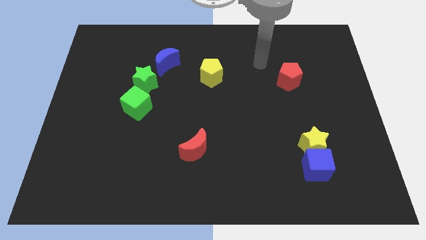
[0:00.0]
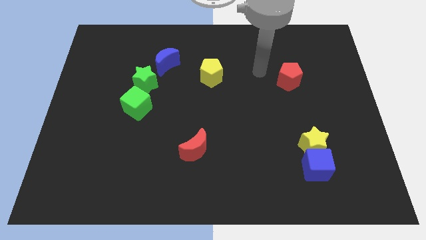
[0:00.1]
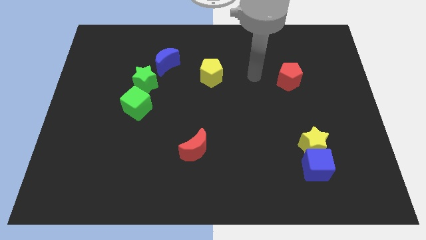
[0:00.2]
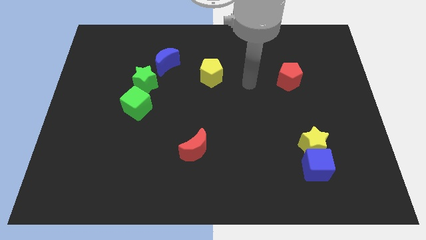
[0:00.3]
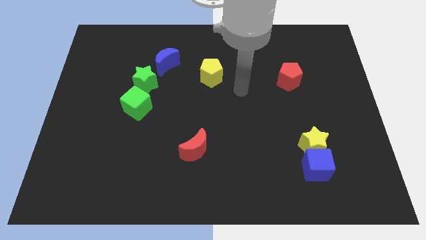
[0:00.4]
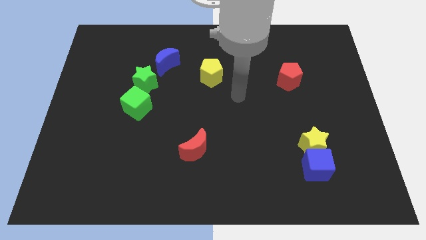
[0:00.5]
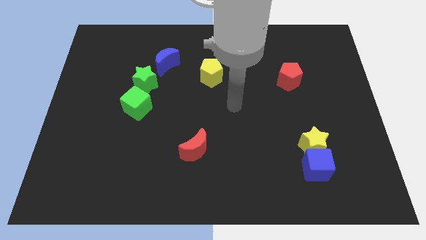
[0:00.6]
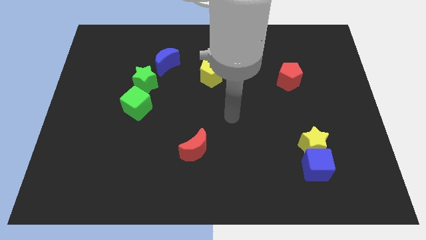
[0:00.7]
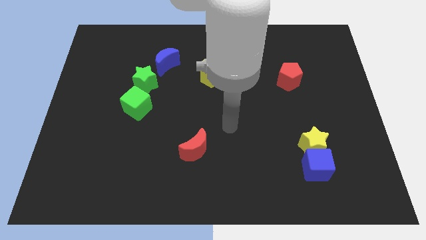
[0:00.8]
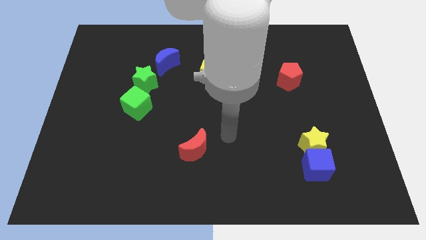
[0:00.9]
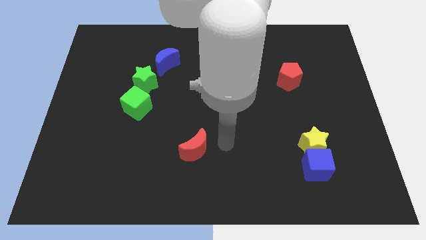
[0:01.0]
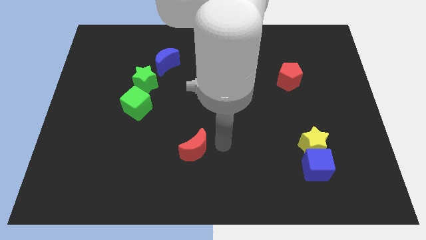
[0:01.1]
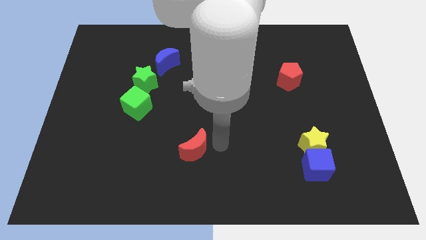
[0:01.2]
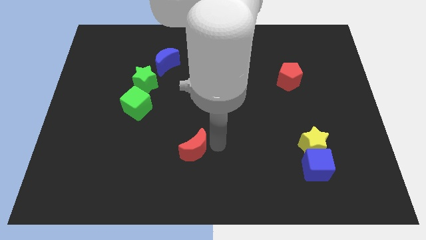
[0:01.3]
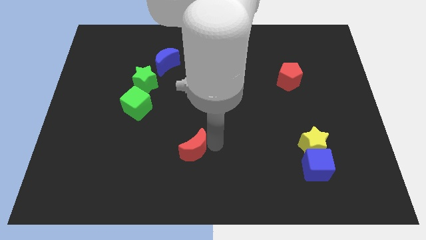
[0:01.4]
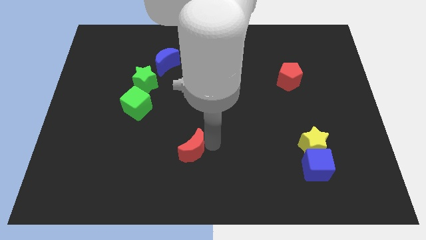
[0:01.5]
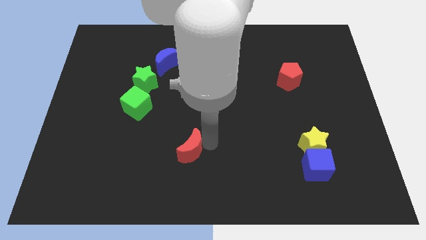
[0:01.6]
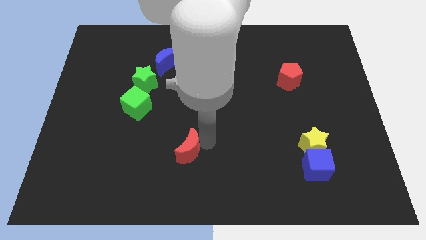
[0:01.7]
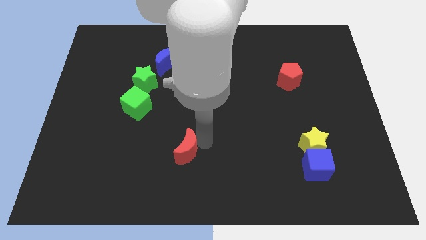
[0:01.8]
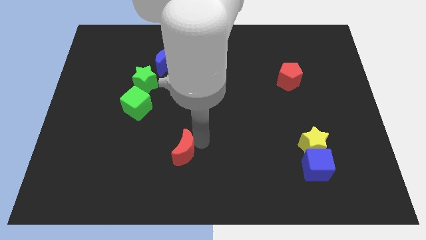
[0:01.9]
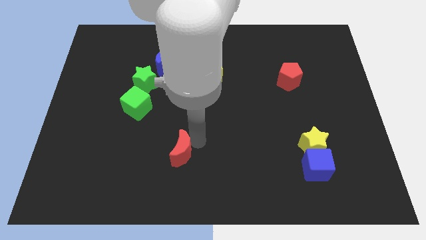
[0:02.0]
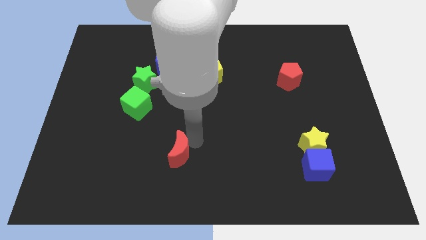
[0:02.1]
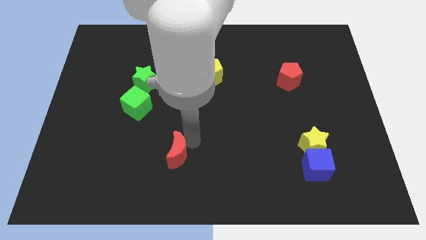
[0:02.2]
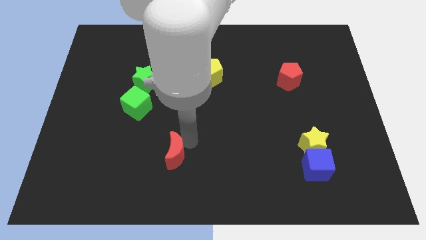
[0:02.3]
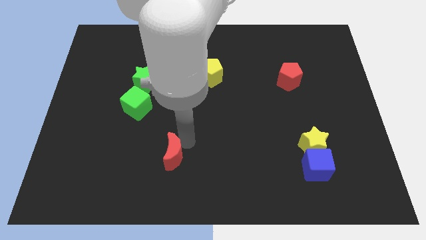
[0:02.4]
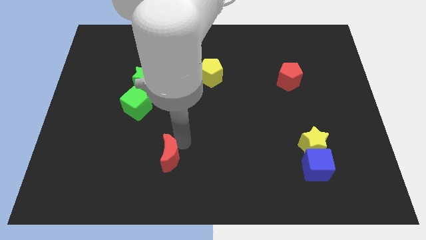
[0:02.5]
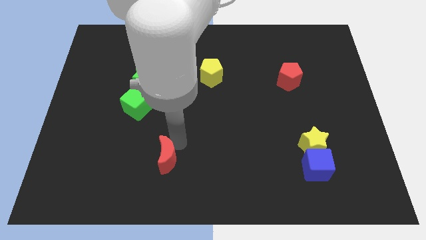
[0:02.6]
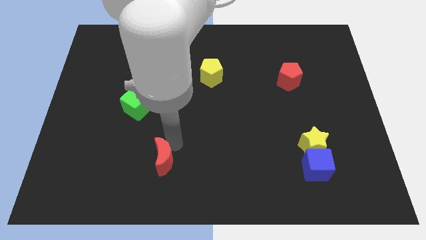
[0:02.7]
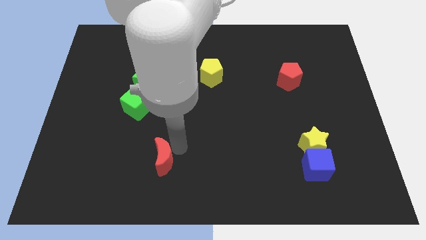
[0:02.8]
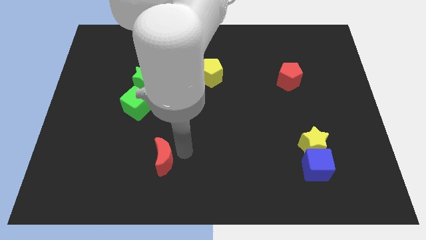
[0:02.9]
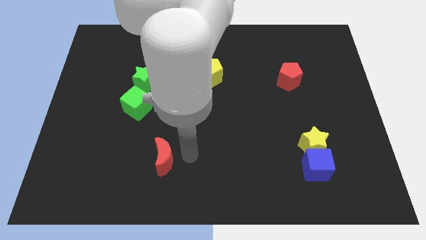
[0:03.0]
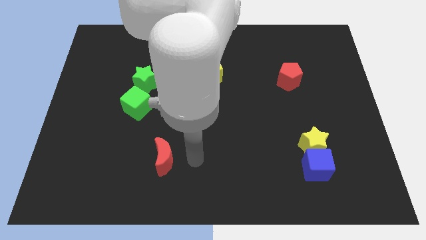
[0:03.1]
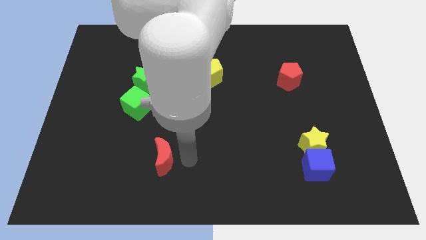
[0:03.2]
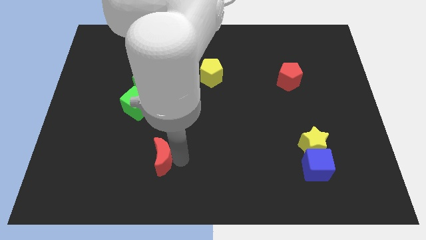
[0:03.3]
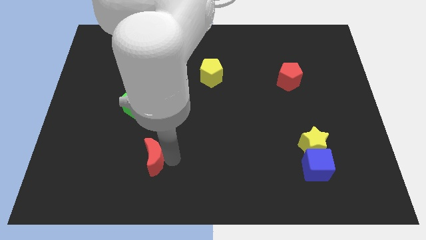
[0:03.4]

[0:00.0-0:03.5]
slide the red moon somewhat left

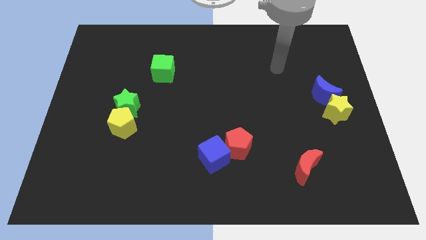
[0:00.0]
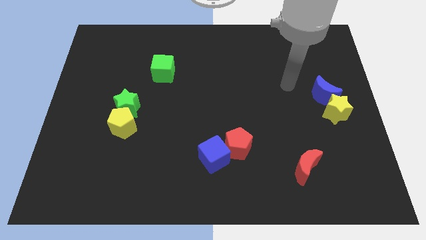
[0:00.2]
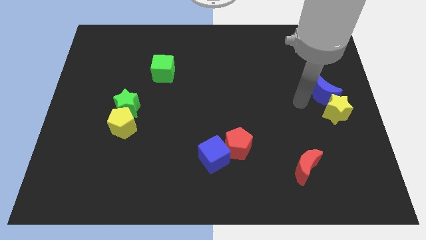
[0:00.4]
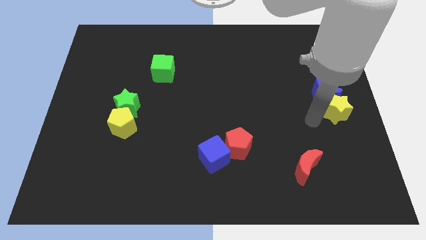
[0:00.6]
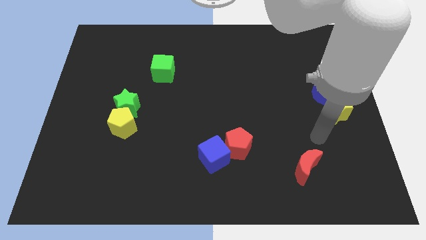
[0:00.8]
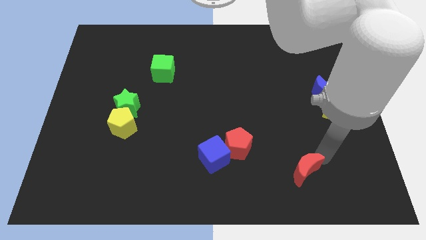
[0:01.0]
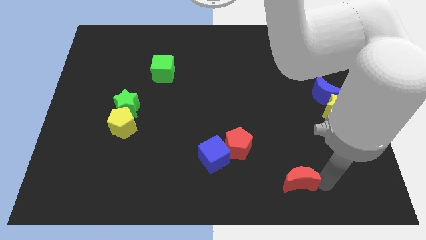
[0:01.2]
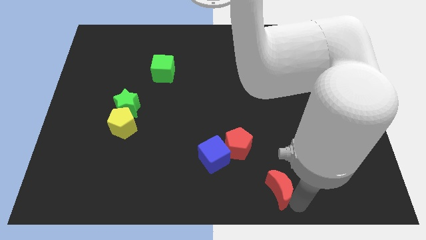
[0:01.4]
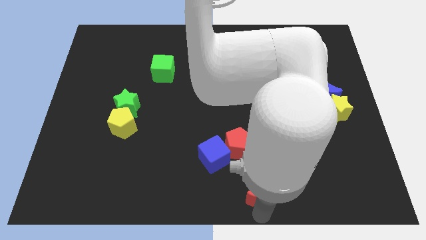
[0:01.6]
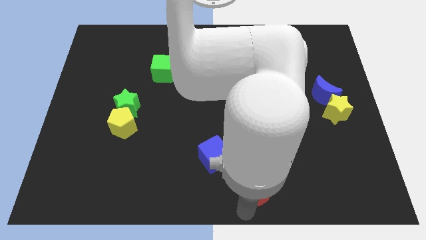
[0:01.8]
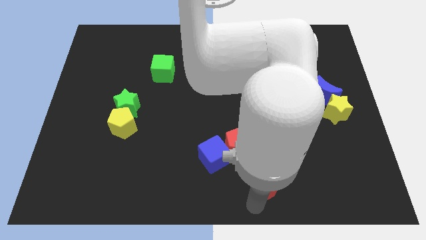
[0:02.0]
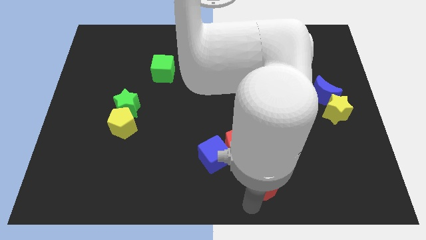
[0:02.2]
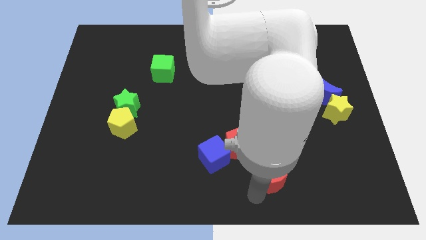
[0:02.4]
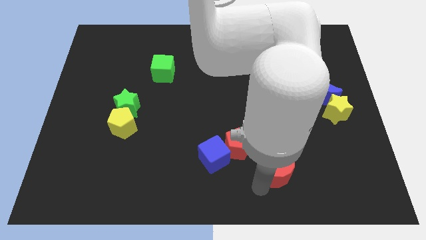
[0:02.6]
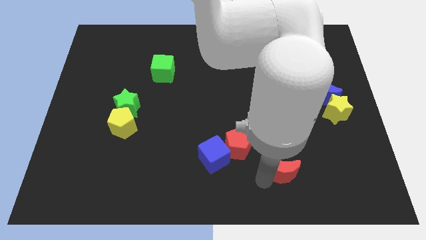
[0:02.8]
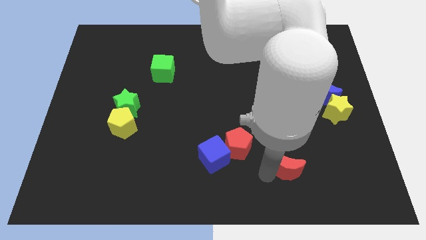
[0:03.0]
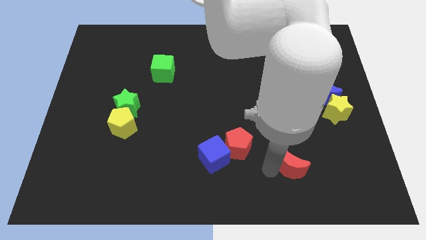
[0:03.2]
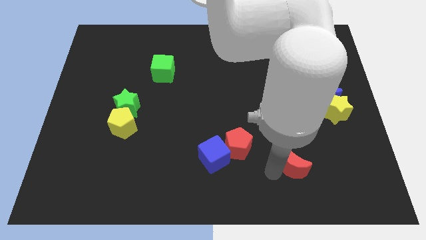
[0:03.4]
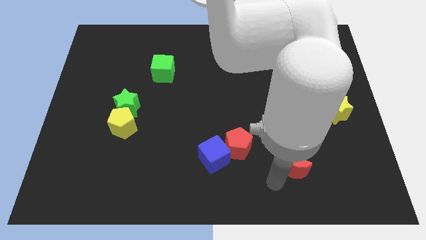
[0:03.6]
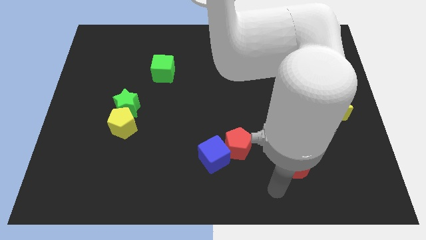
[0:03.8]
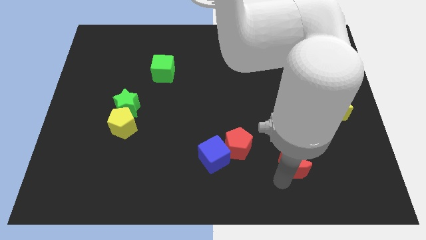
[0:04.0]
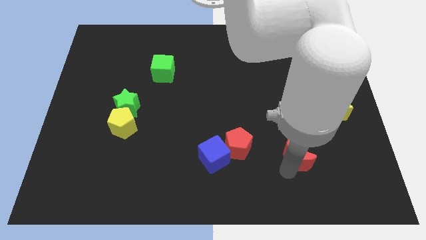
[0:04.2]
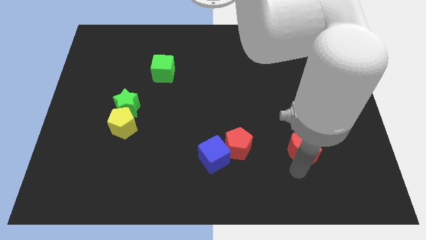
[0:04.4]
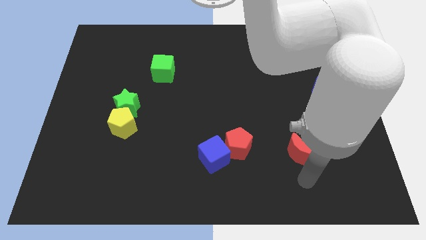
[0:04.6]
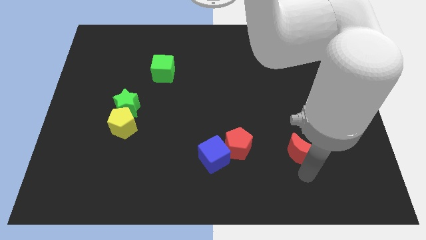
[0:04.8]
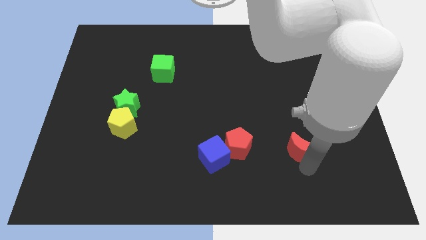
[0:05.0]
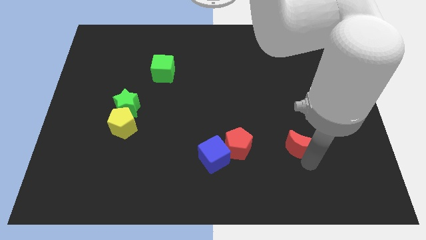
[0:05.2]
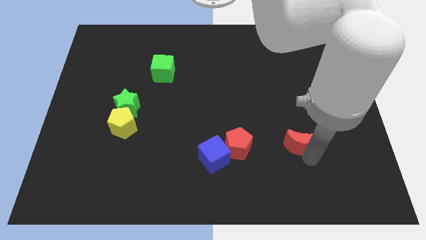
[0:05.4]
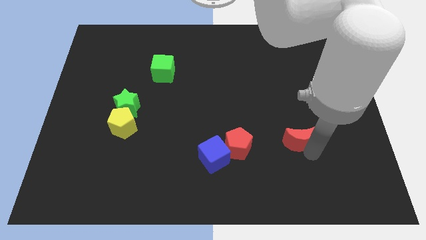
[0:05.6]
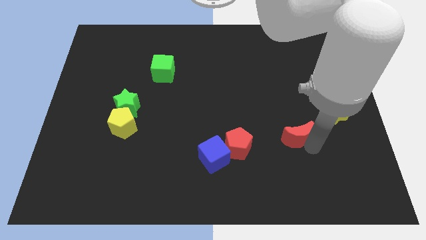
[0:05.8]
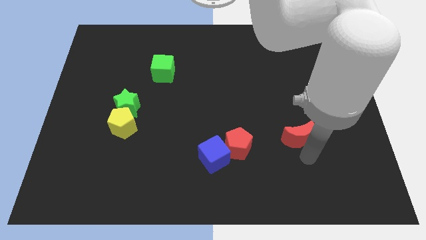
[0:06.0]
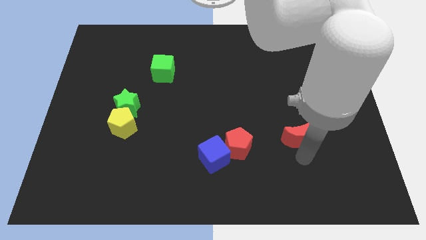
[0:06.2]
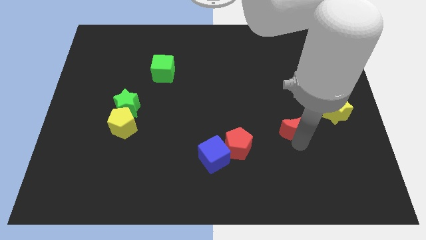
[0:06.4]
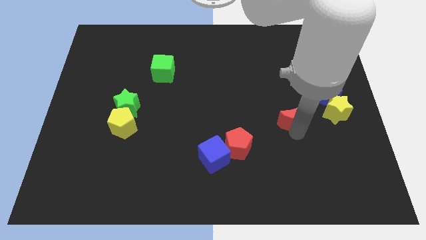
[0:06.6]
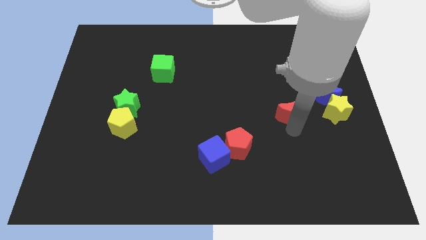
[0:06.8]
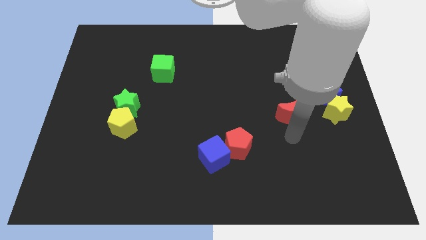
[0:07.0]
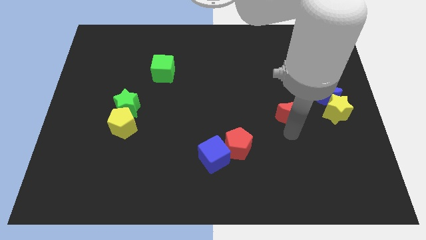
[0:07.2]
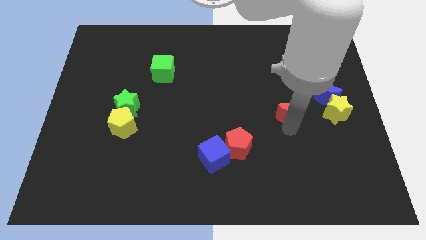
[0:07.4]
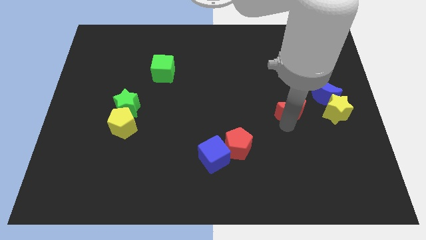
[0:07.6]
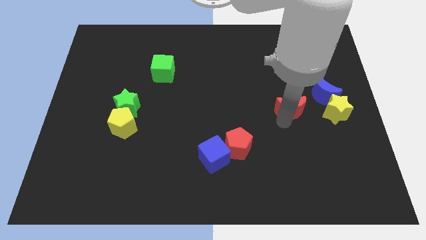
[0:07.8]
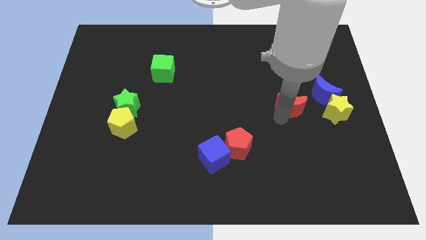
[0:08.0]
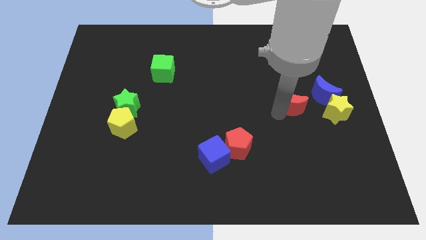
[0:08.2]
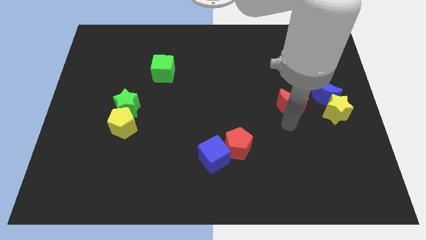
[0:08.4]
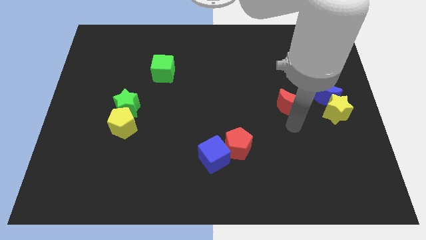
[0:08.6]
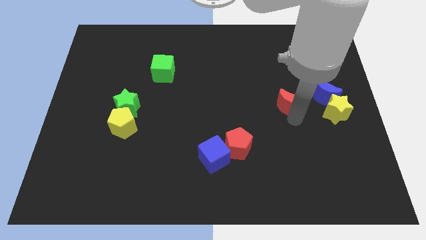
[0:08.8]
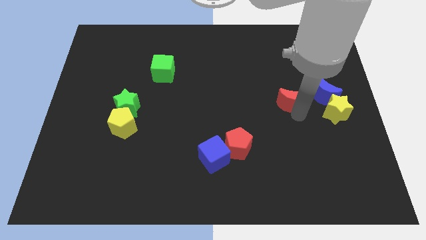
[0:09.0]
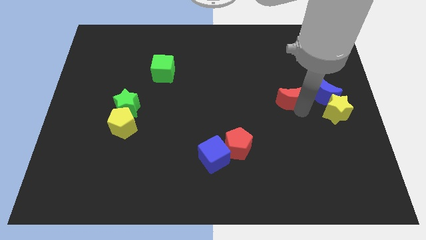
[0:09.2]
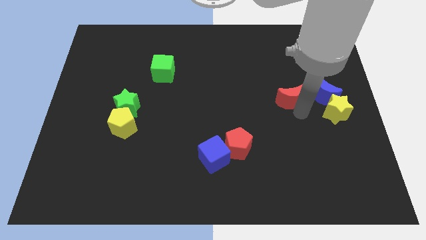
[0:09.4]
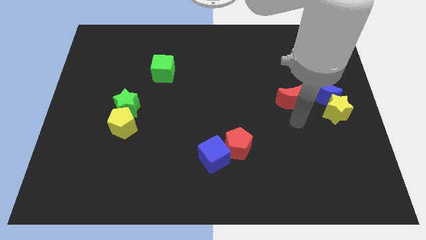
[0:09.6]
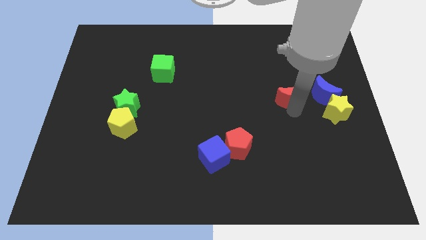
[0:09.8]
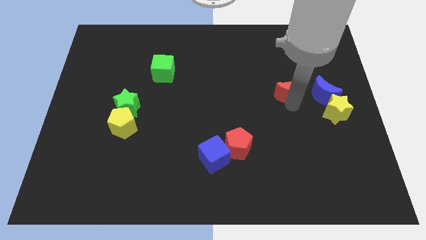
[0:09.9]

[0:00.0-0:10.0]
move the red moon up

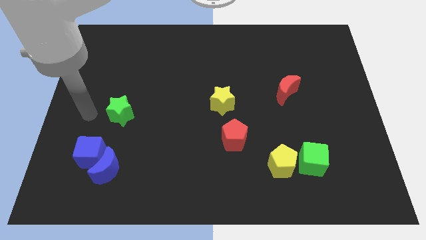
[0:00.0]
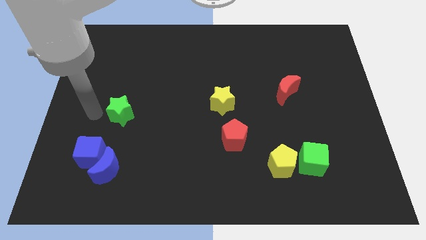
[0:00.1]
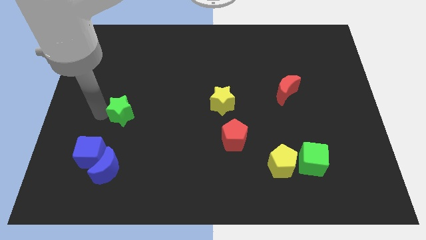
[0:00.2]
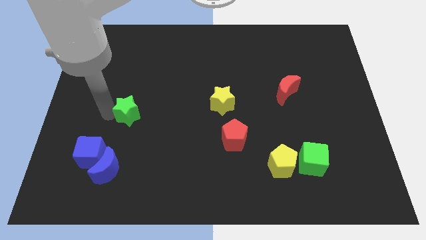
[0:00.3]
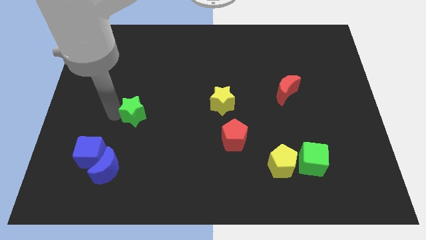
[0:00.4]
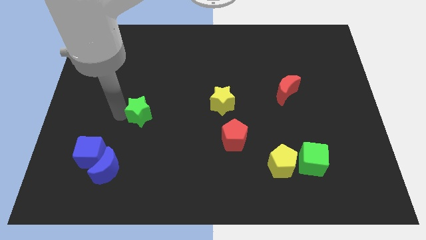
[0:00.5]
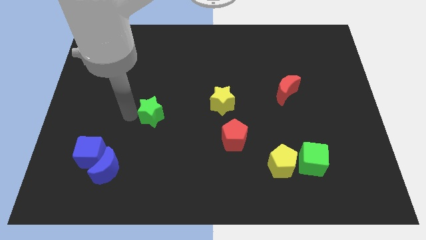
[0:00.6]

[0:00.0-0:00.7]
move the green star a little bit right
